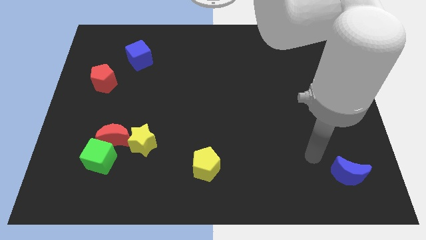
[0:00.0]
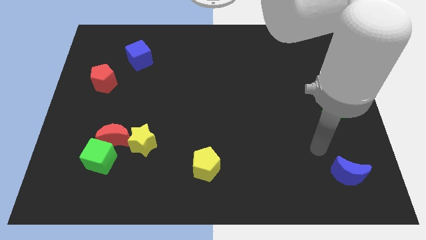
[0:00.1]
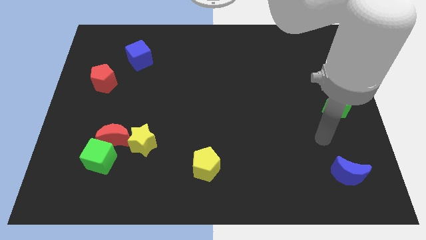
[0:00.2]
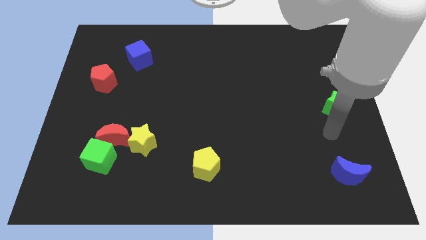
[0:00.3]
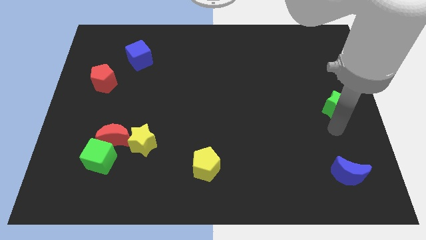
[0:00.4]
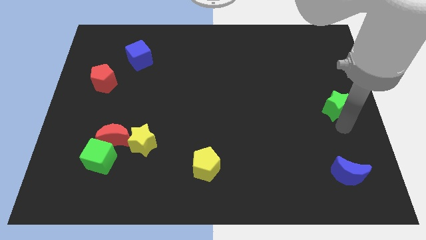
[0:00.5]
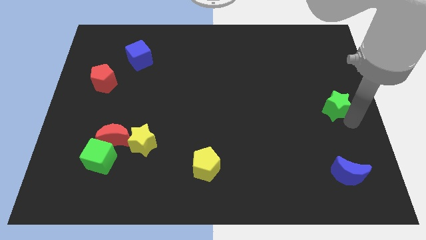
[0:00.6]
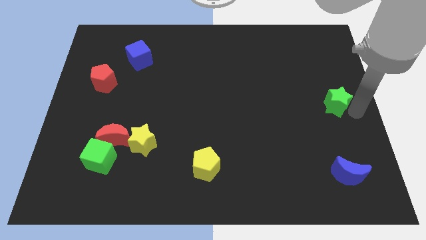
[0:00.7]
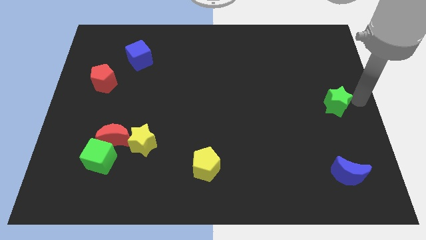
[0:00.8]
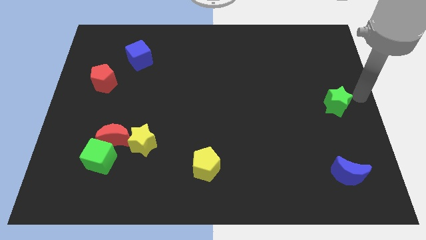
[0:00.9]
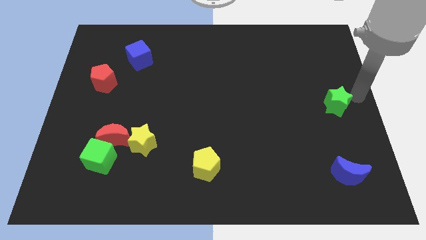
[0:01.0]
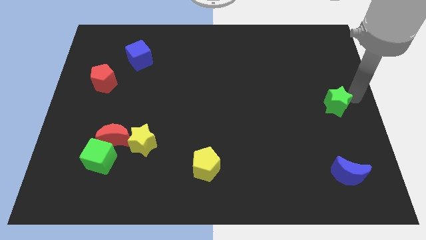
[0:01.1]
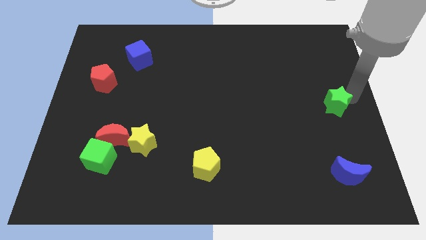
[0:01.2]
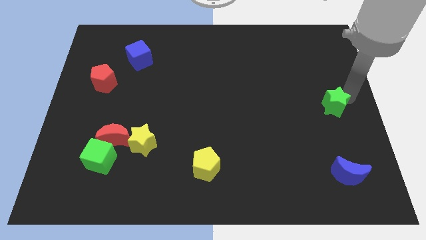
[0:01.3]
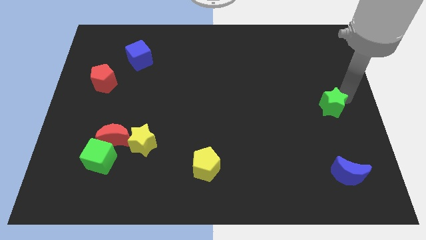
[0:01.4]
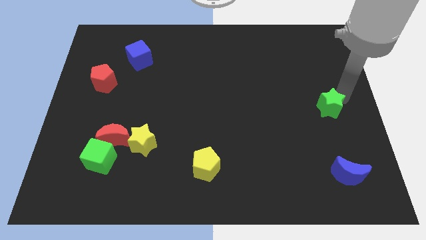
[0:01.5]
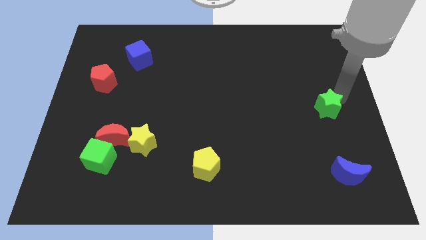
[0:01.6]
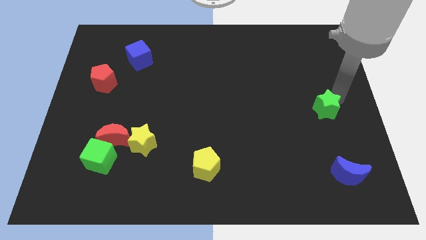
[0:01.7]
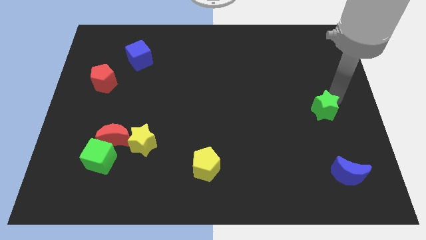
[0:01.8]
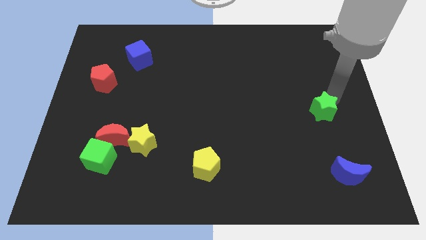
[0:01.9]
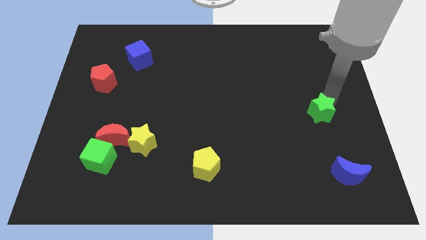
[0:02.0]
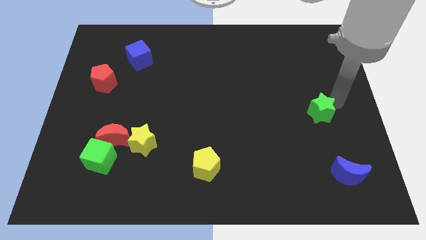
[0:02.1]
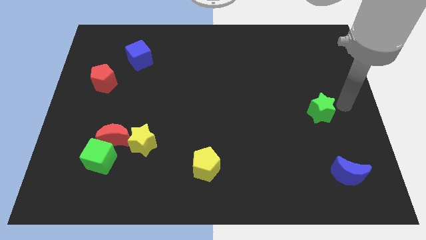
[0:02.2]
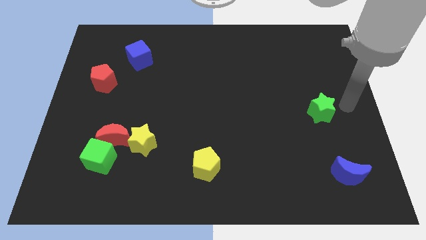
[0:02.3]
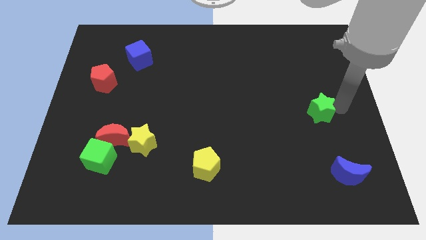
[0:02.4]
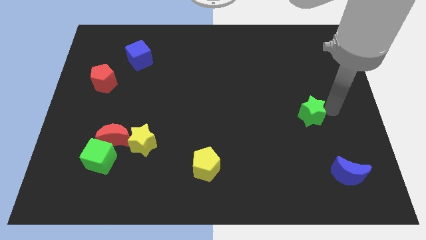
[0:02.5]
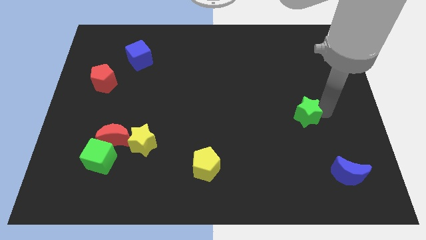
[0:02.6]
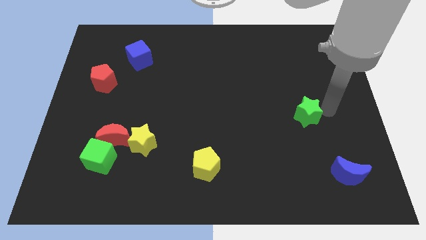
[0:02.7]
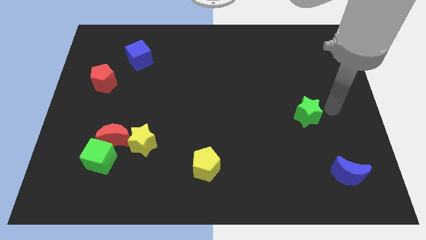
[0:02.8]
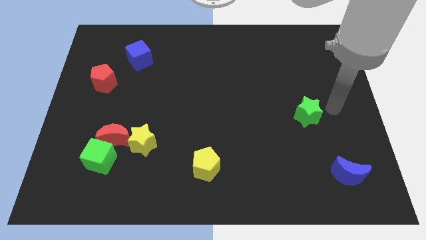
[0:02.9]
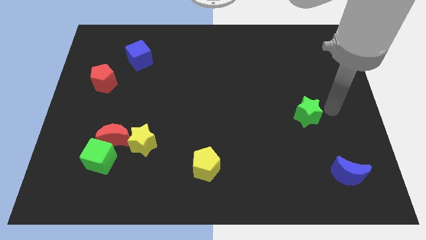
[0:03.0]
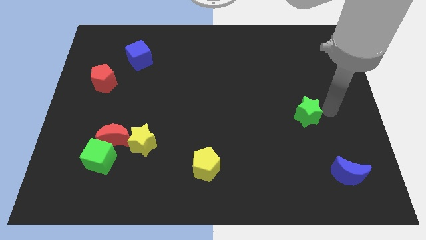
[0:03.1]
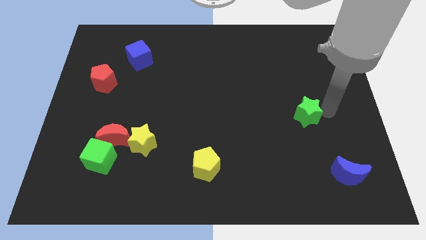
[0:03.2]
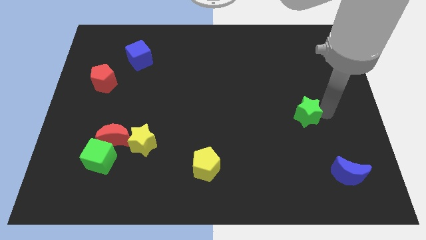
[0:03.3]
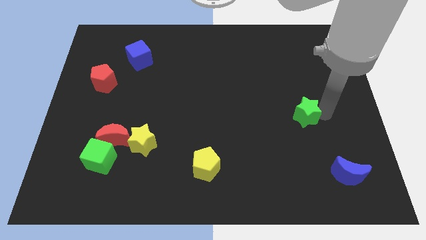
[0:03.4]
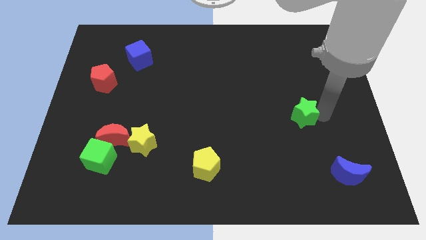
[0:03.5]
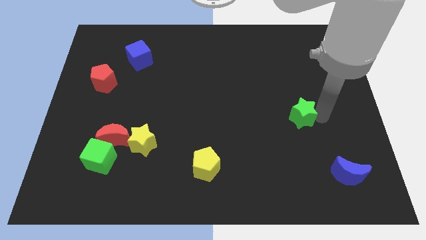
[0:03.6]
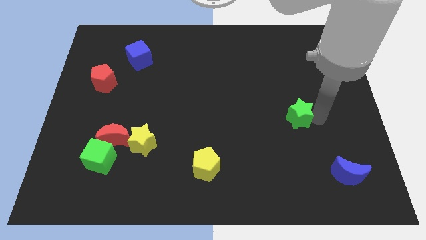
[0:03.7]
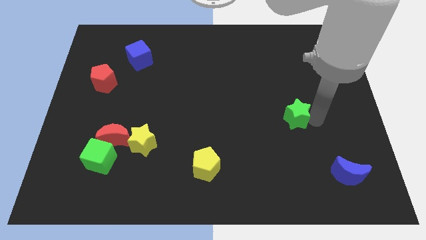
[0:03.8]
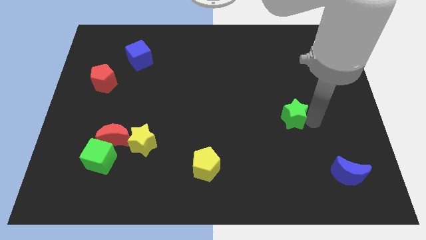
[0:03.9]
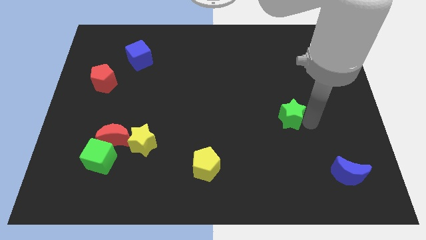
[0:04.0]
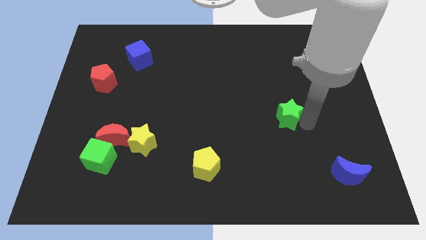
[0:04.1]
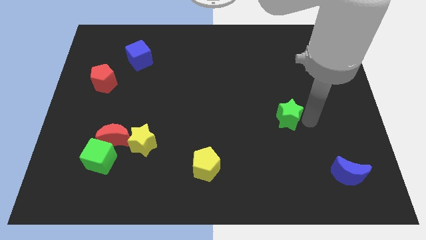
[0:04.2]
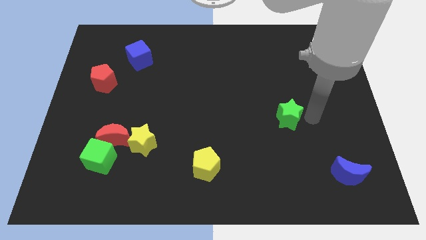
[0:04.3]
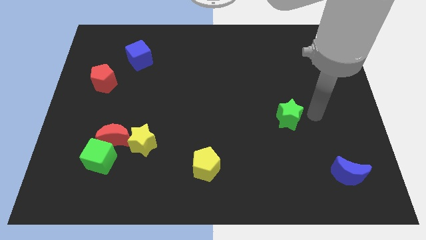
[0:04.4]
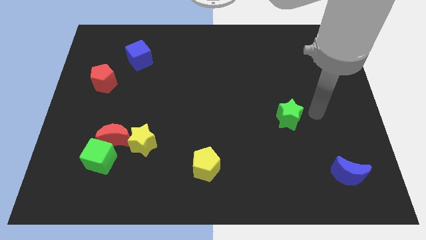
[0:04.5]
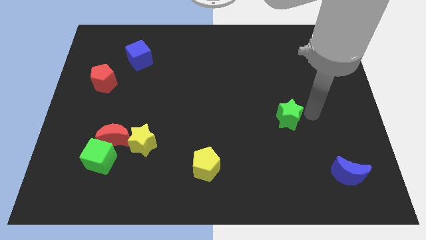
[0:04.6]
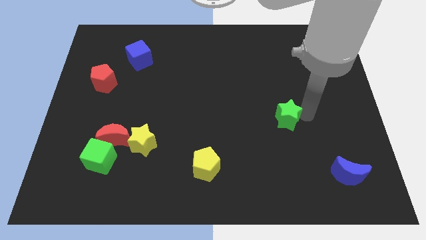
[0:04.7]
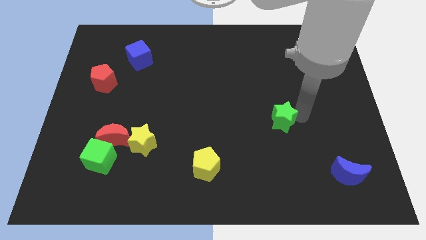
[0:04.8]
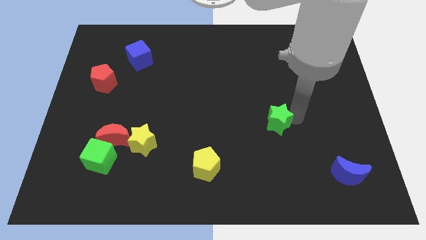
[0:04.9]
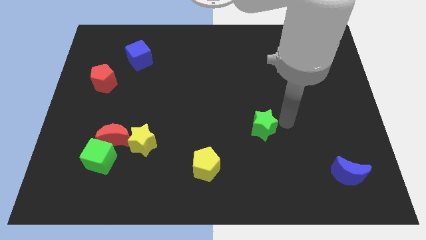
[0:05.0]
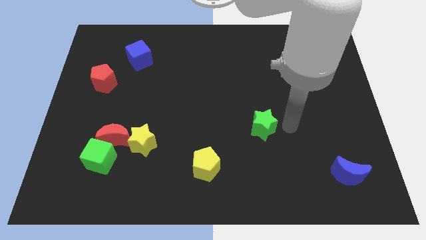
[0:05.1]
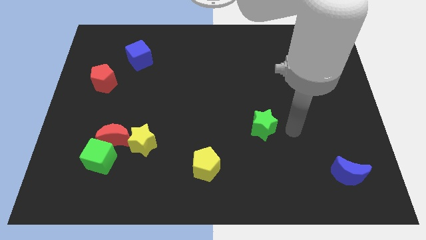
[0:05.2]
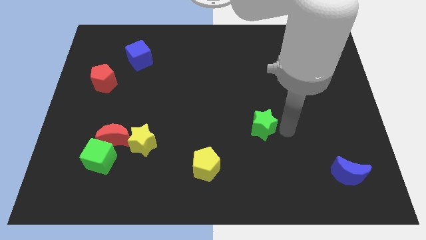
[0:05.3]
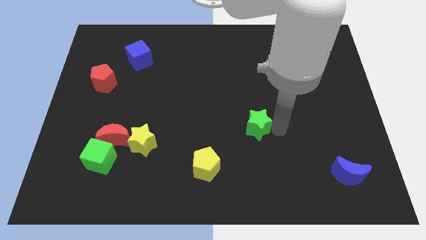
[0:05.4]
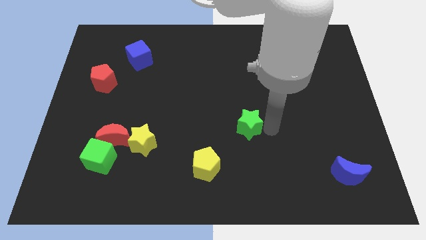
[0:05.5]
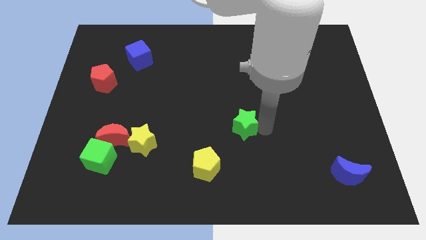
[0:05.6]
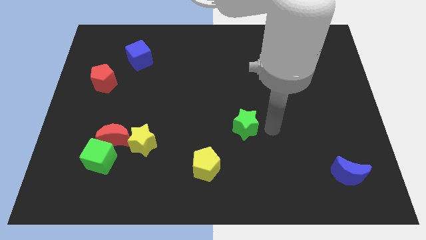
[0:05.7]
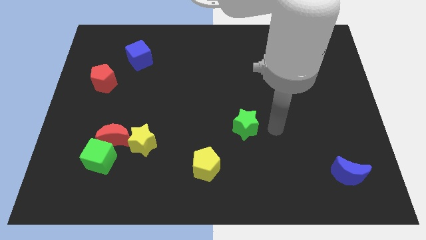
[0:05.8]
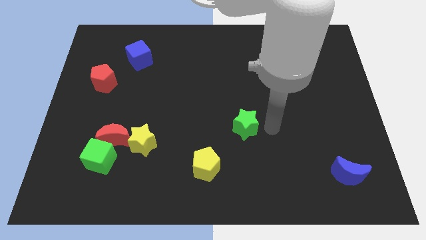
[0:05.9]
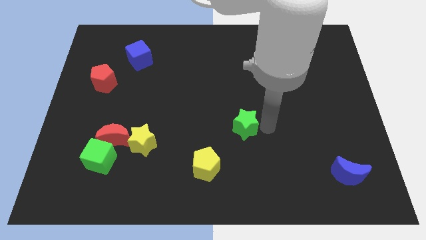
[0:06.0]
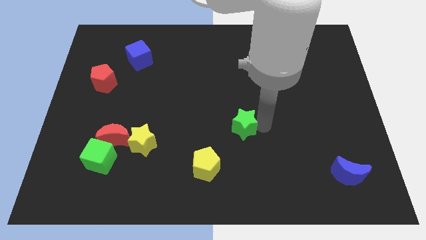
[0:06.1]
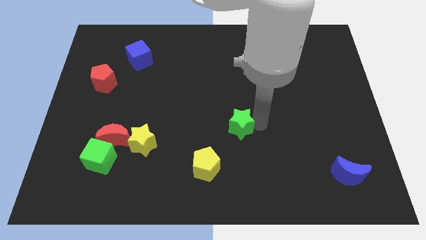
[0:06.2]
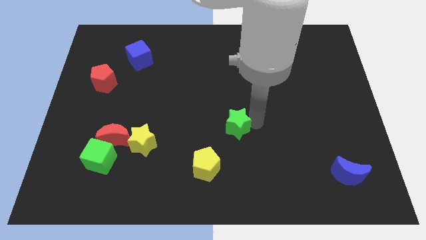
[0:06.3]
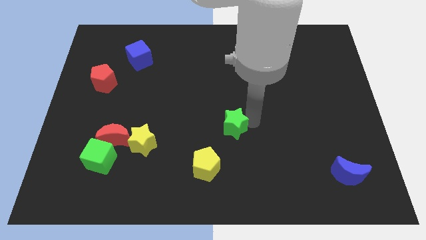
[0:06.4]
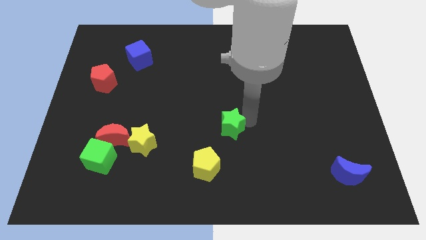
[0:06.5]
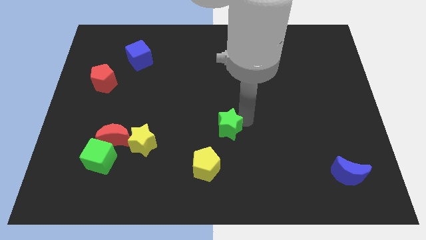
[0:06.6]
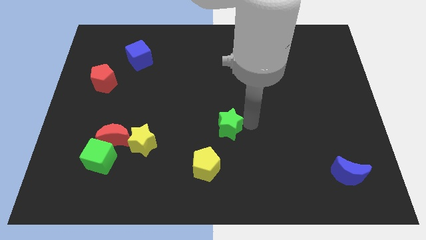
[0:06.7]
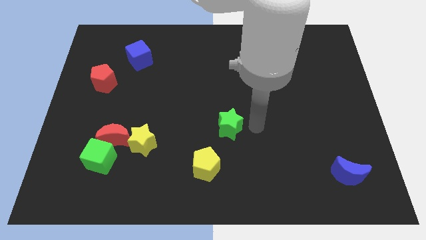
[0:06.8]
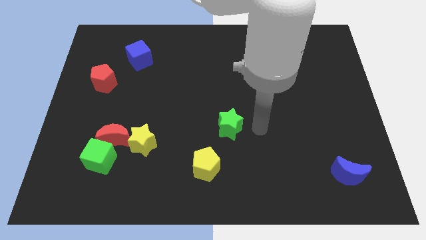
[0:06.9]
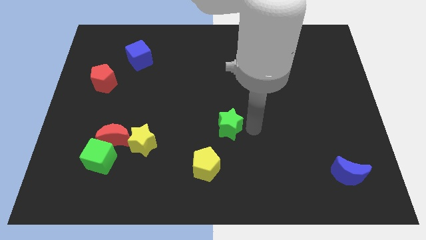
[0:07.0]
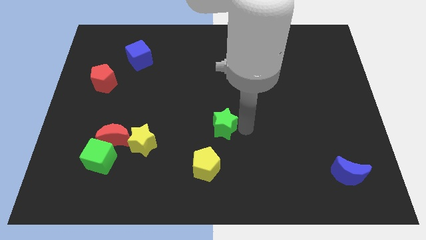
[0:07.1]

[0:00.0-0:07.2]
slide the green star to the top side of the yellow pentagon
